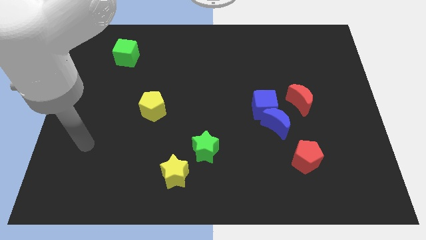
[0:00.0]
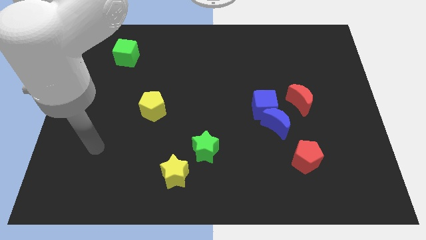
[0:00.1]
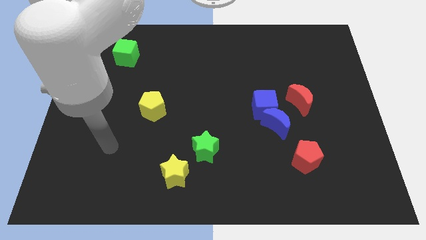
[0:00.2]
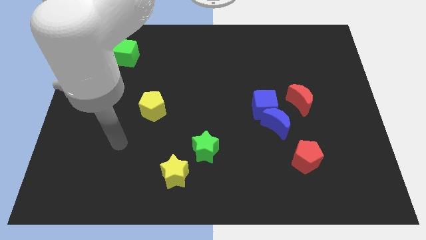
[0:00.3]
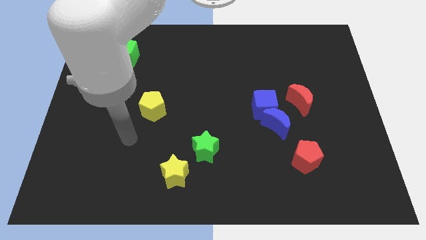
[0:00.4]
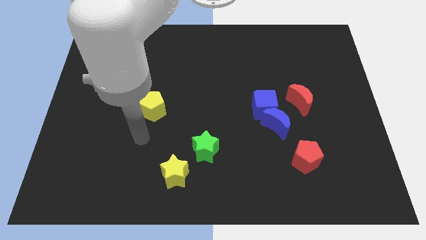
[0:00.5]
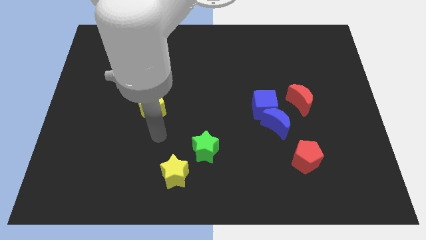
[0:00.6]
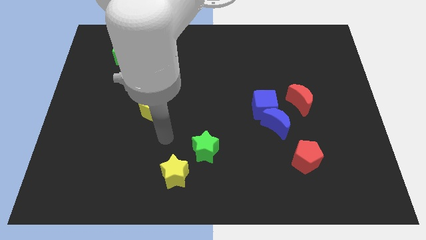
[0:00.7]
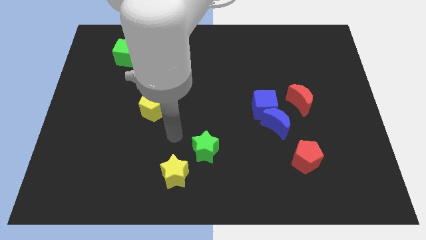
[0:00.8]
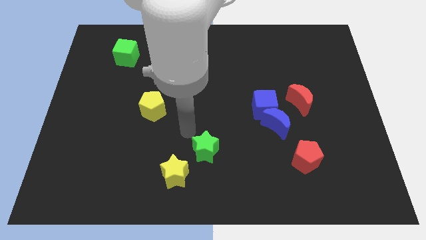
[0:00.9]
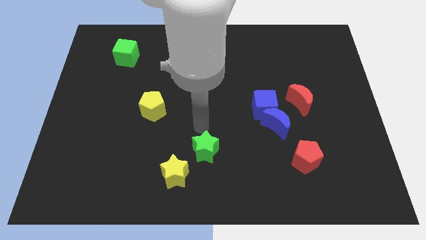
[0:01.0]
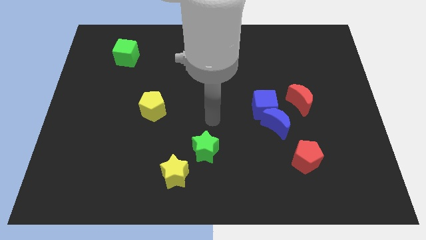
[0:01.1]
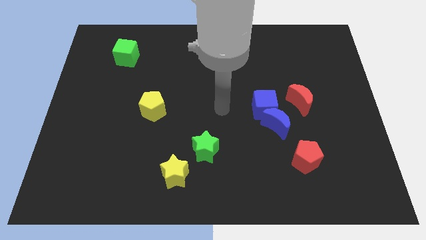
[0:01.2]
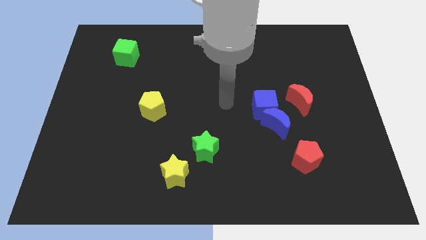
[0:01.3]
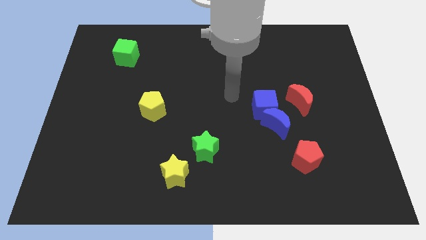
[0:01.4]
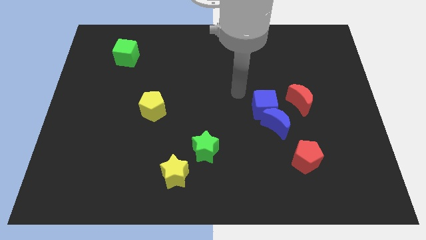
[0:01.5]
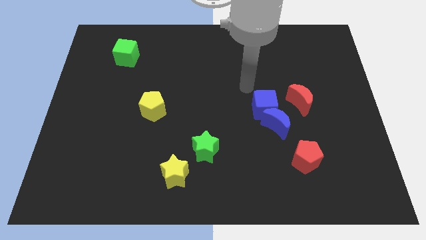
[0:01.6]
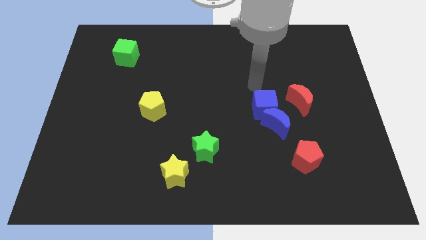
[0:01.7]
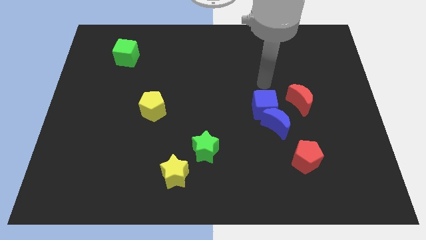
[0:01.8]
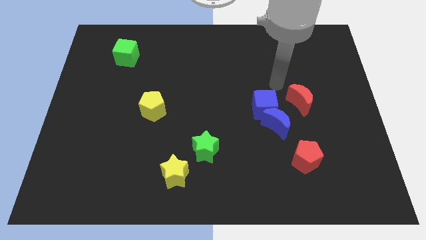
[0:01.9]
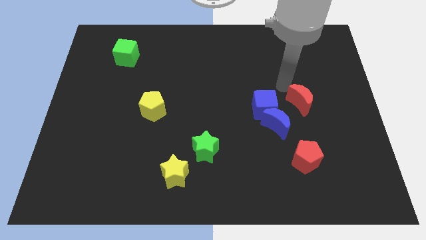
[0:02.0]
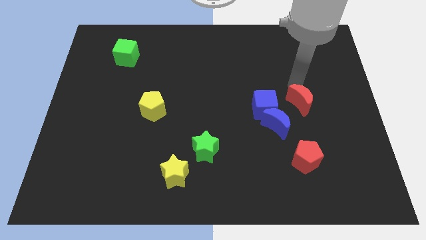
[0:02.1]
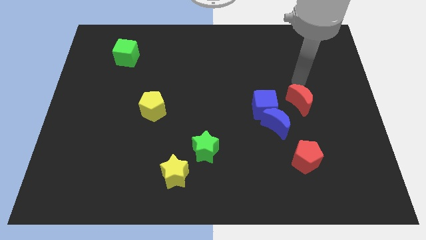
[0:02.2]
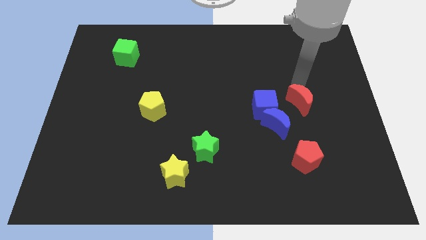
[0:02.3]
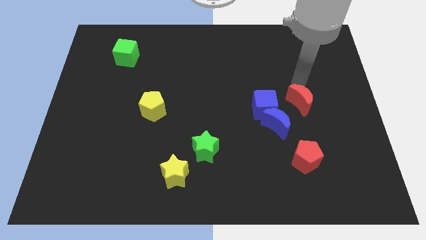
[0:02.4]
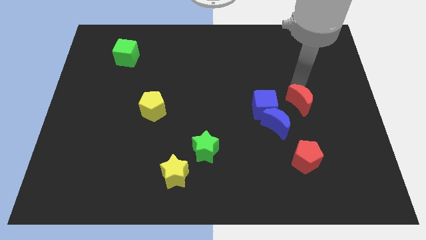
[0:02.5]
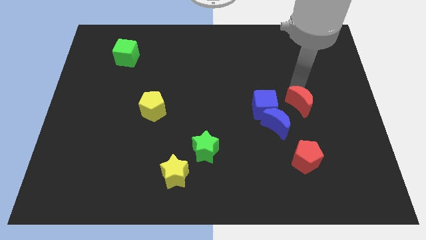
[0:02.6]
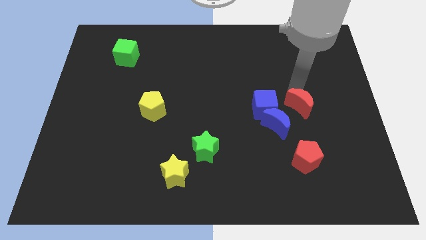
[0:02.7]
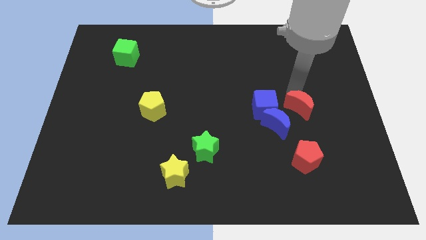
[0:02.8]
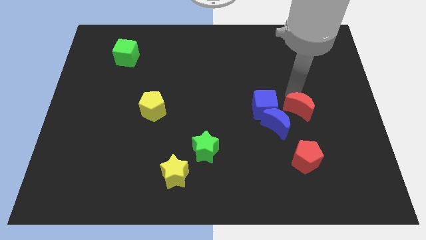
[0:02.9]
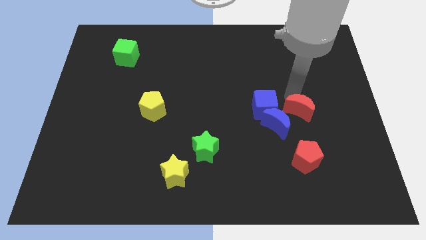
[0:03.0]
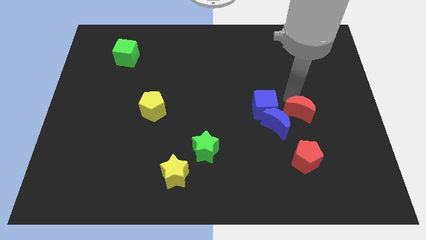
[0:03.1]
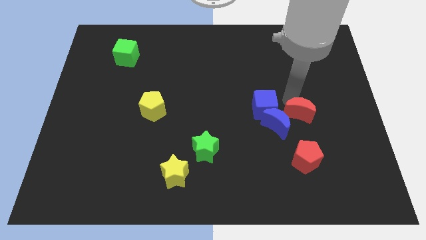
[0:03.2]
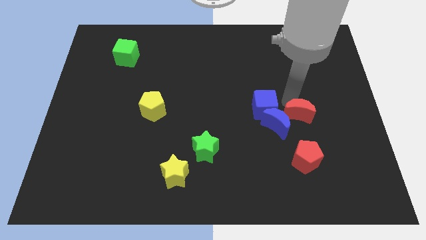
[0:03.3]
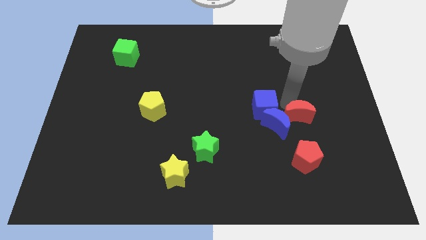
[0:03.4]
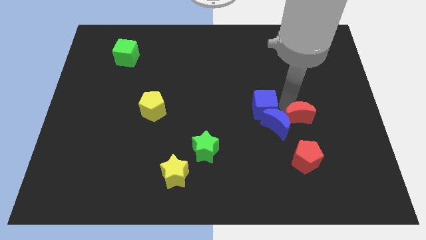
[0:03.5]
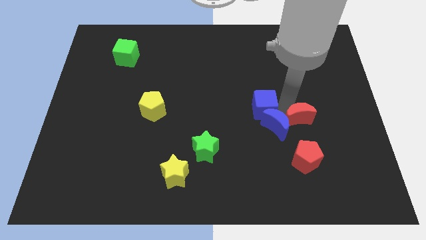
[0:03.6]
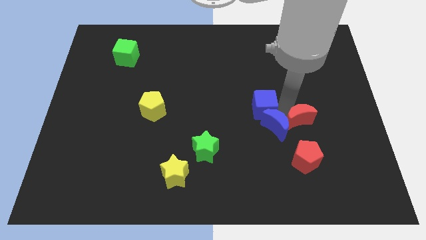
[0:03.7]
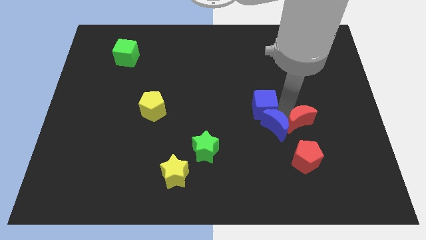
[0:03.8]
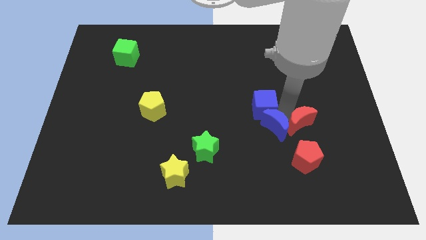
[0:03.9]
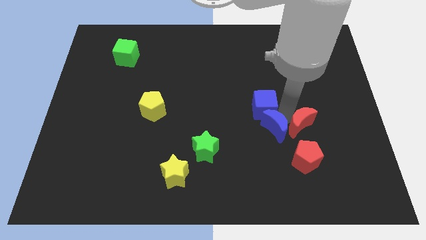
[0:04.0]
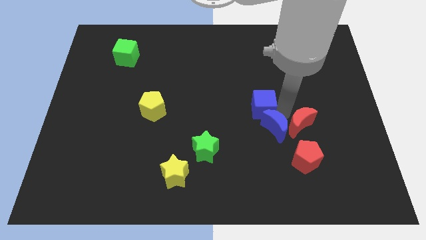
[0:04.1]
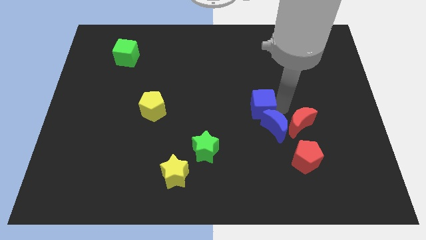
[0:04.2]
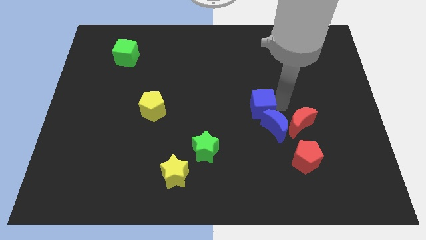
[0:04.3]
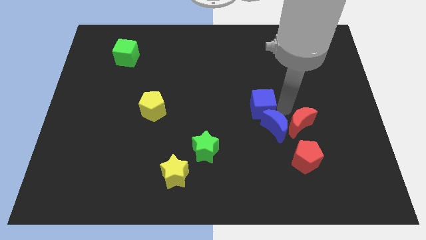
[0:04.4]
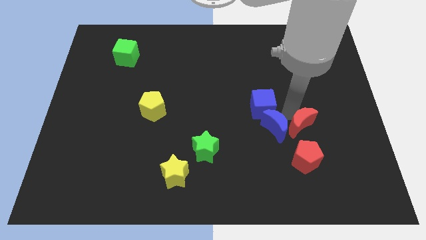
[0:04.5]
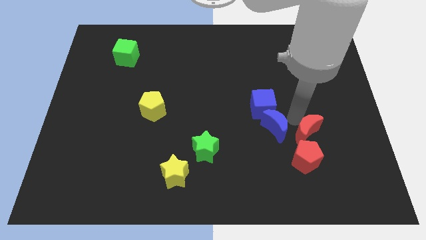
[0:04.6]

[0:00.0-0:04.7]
move the red moon a little down

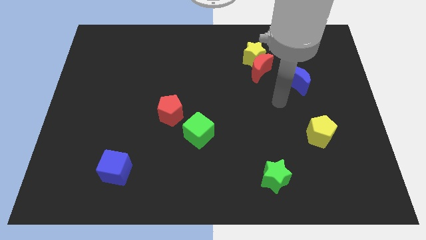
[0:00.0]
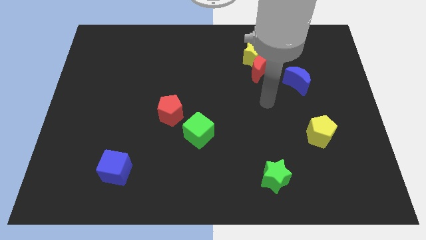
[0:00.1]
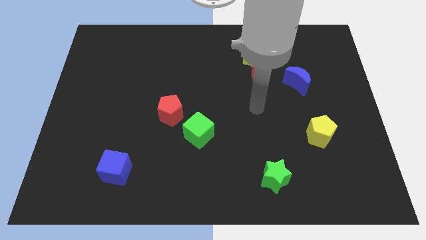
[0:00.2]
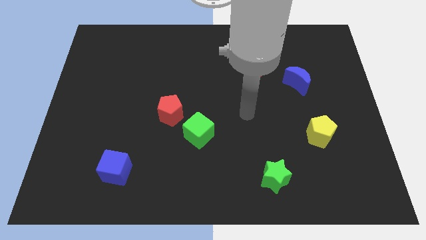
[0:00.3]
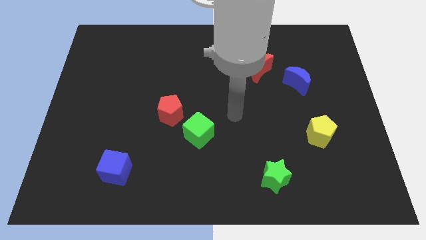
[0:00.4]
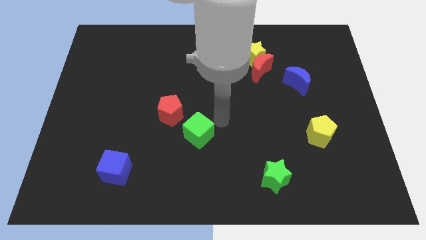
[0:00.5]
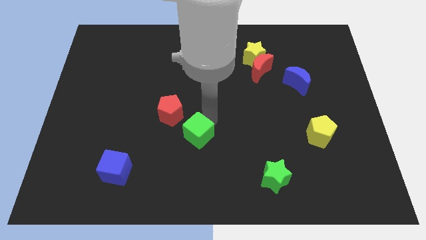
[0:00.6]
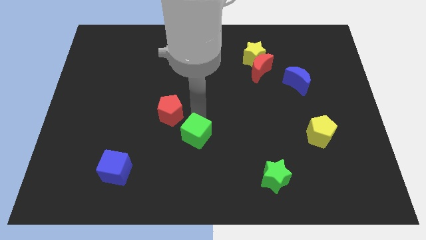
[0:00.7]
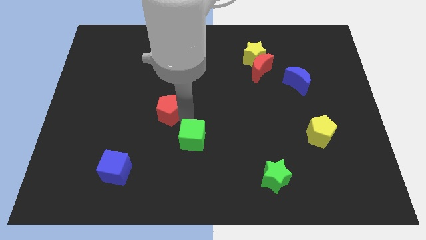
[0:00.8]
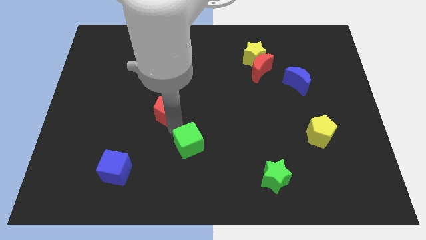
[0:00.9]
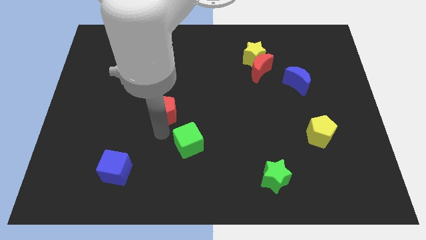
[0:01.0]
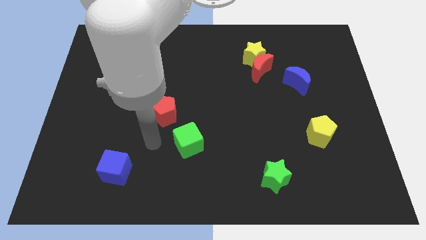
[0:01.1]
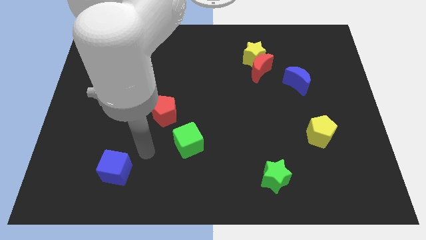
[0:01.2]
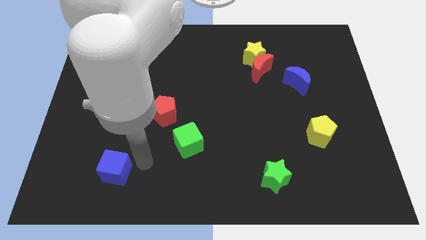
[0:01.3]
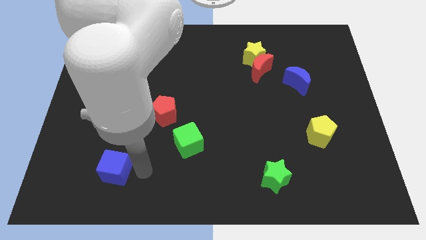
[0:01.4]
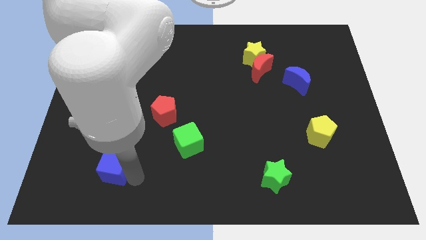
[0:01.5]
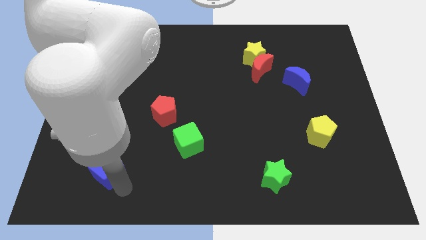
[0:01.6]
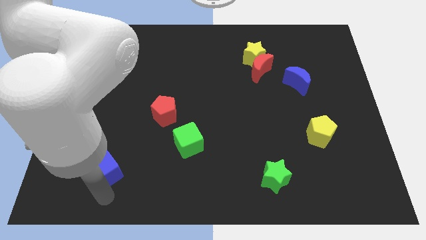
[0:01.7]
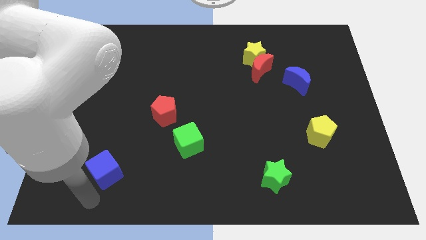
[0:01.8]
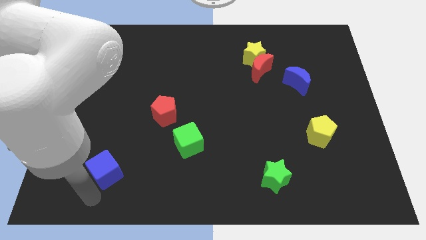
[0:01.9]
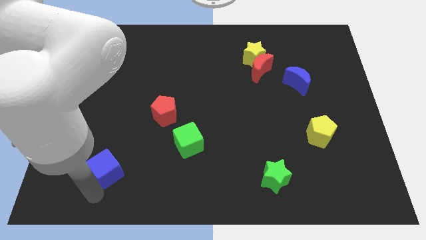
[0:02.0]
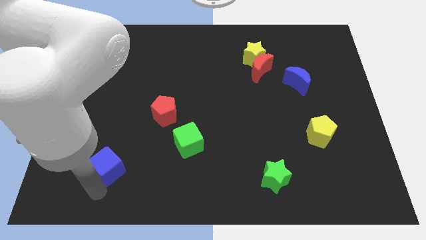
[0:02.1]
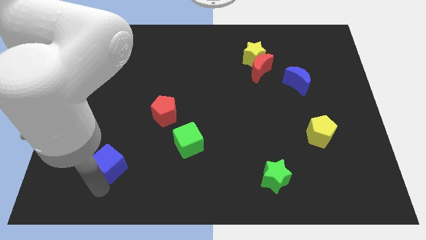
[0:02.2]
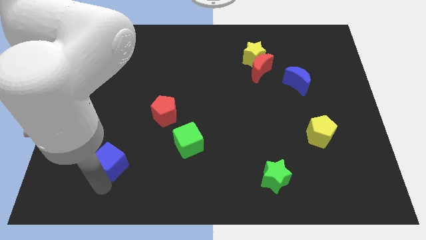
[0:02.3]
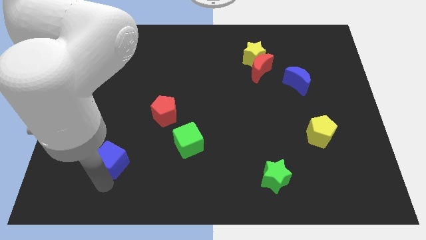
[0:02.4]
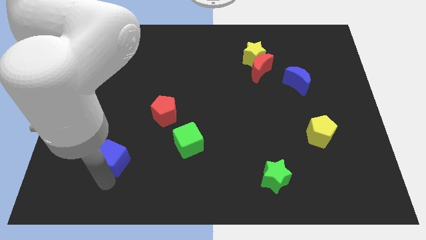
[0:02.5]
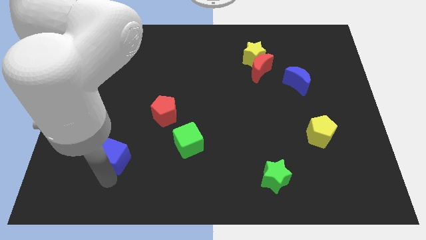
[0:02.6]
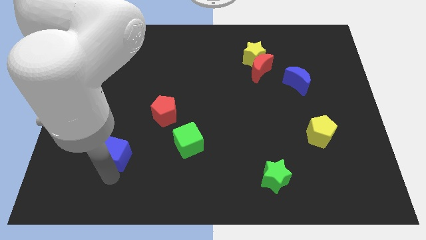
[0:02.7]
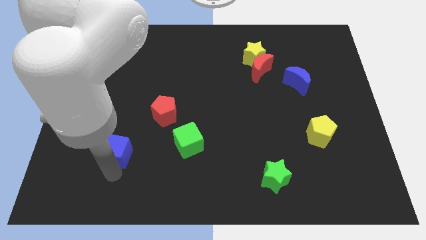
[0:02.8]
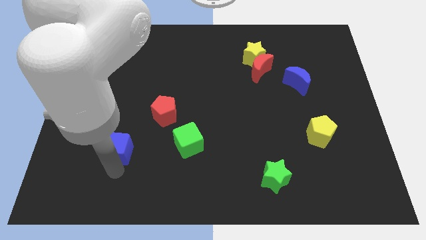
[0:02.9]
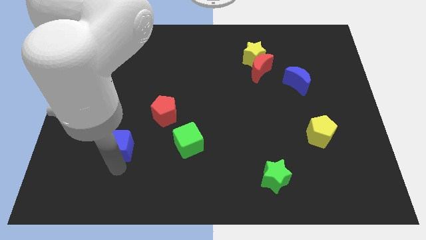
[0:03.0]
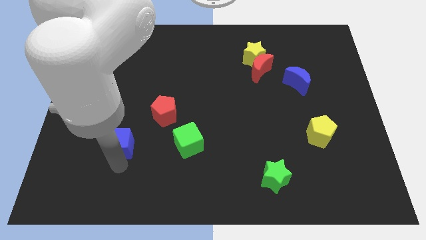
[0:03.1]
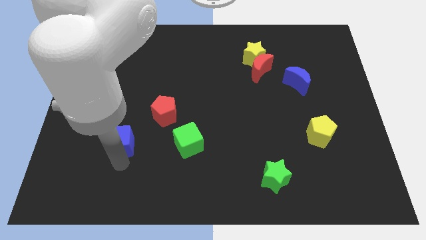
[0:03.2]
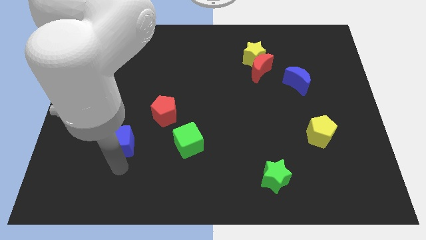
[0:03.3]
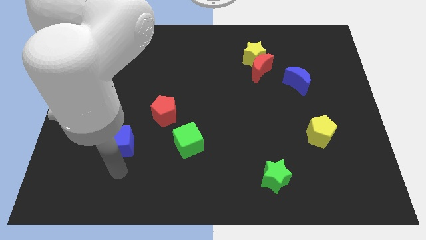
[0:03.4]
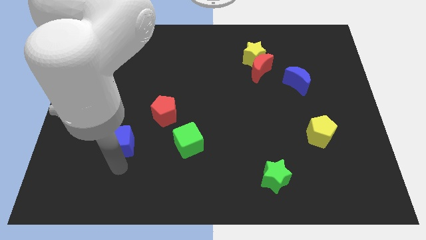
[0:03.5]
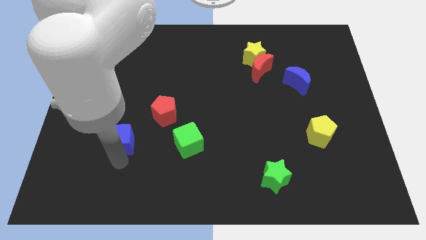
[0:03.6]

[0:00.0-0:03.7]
slightly push the blue cube up
